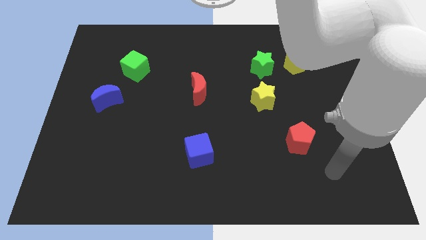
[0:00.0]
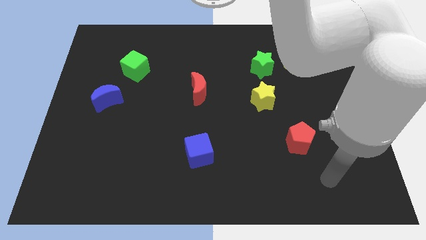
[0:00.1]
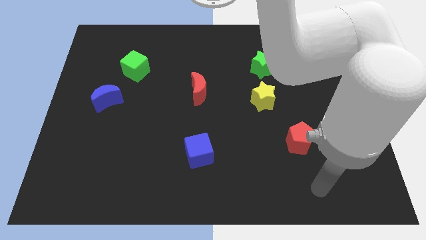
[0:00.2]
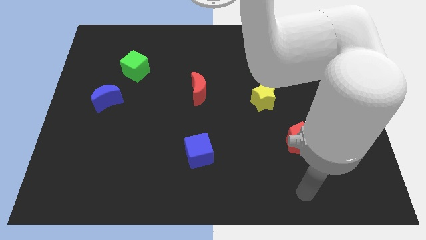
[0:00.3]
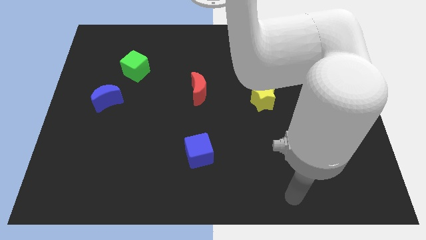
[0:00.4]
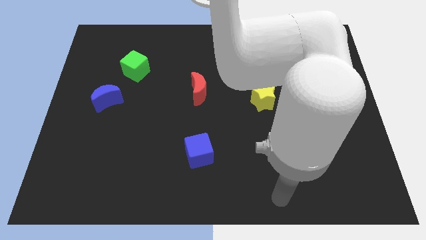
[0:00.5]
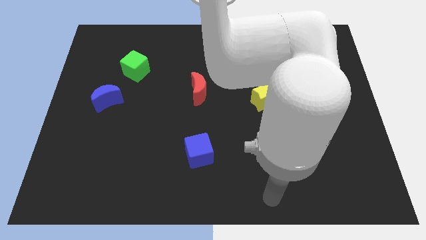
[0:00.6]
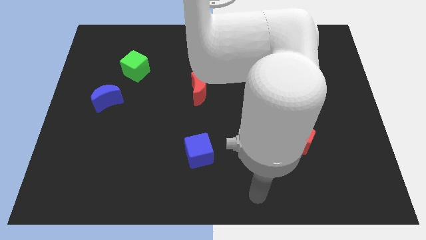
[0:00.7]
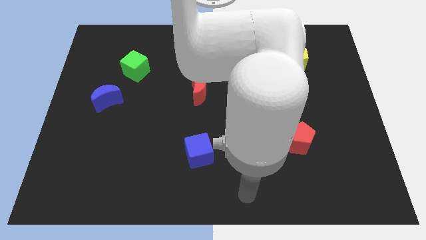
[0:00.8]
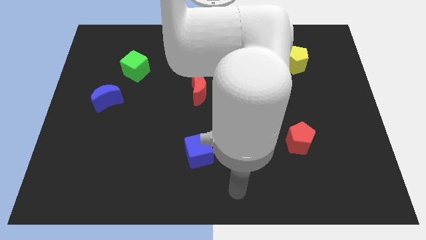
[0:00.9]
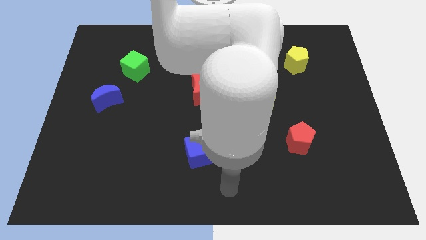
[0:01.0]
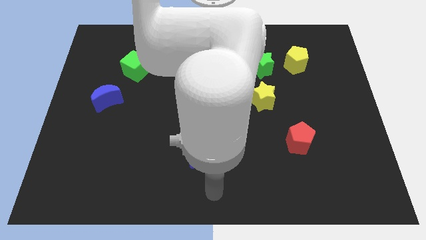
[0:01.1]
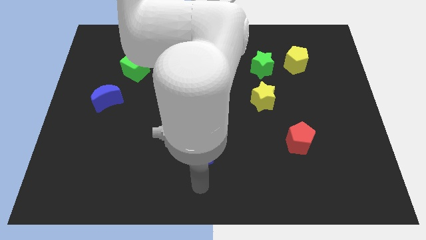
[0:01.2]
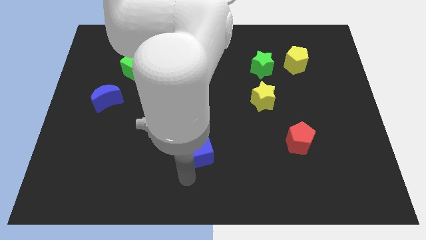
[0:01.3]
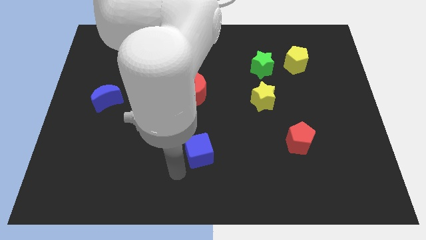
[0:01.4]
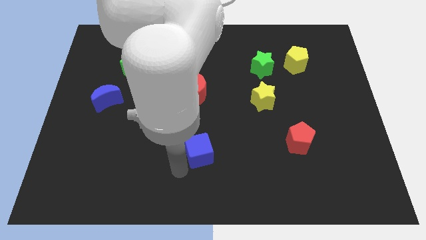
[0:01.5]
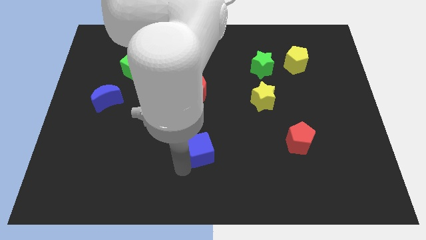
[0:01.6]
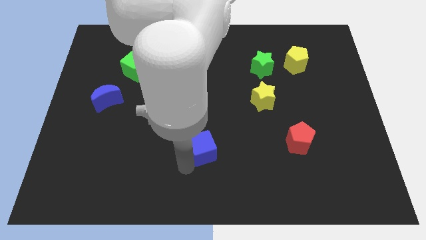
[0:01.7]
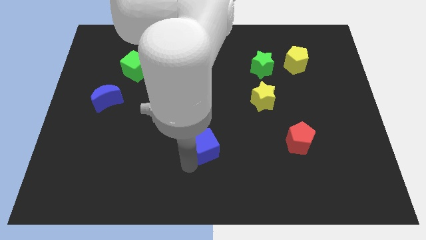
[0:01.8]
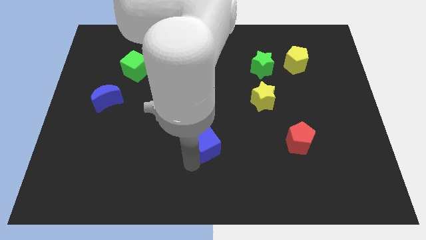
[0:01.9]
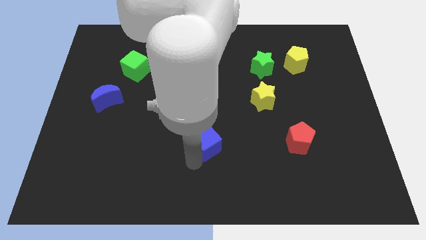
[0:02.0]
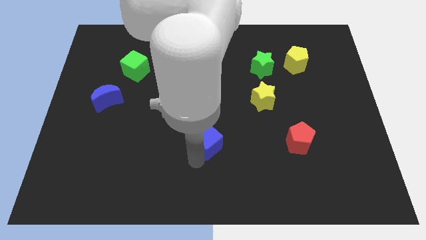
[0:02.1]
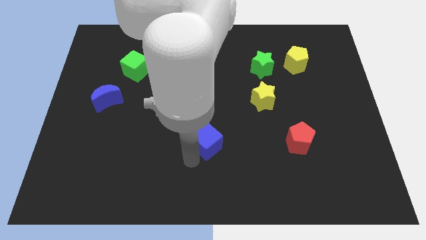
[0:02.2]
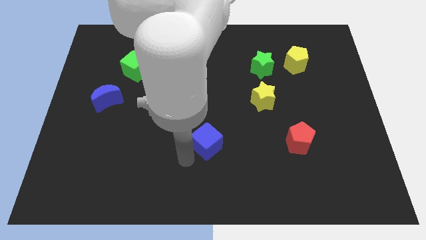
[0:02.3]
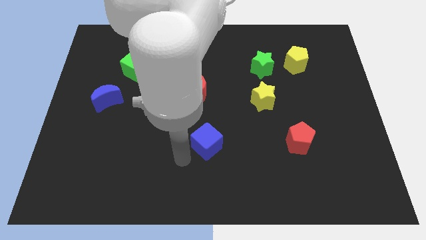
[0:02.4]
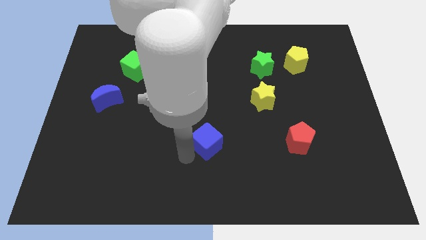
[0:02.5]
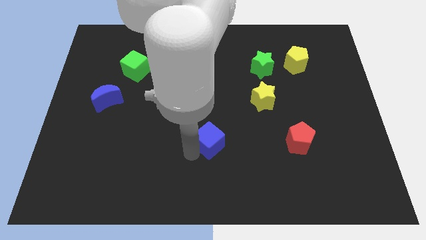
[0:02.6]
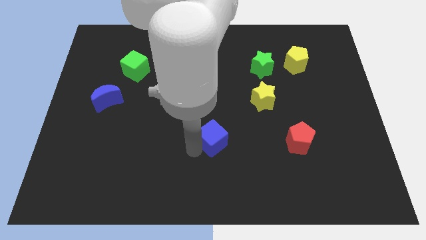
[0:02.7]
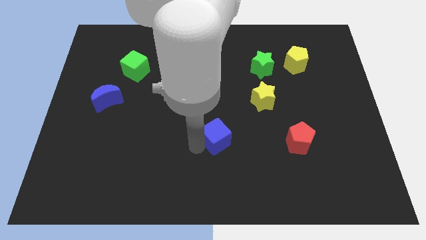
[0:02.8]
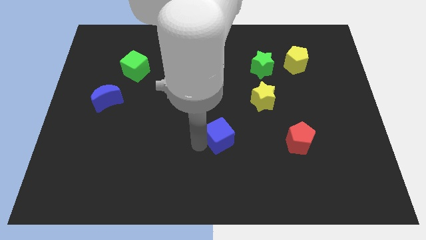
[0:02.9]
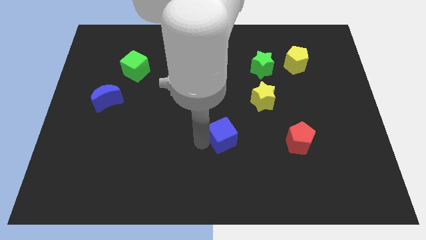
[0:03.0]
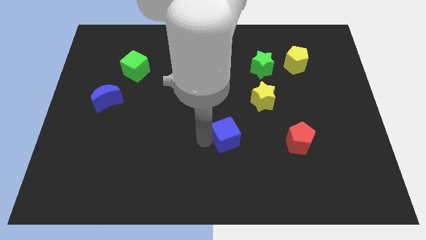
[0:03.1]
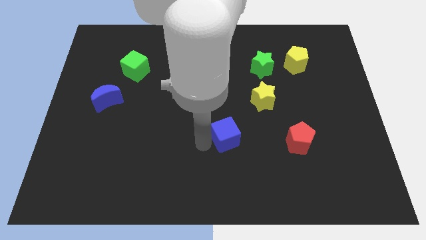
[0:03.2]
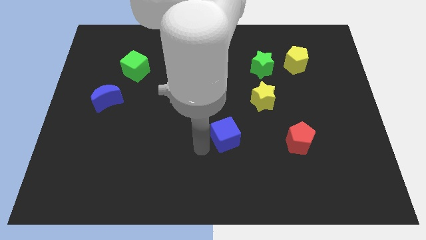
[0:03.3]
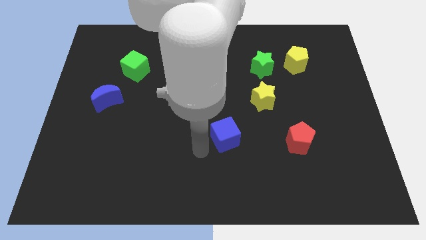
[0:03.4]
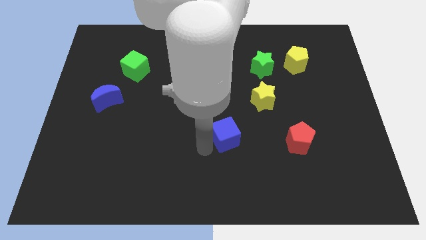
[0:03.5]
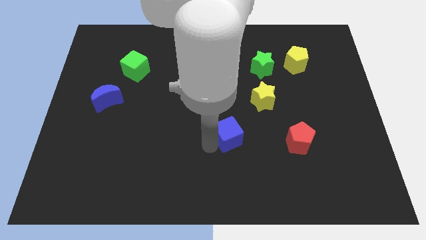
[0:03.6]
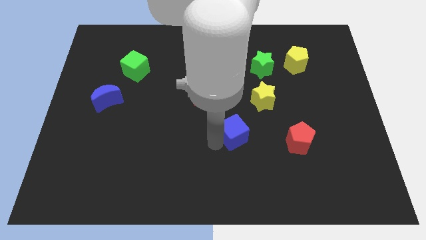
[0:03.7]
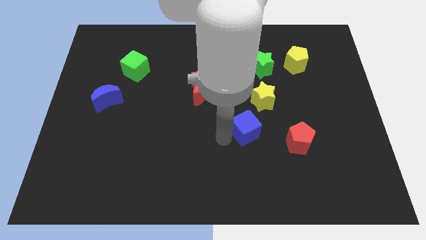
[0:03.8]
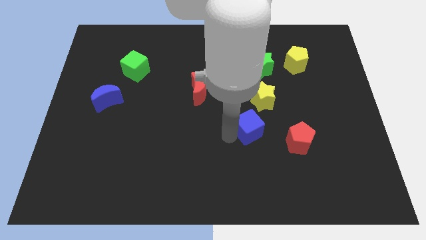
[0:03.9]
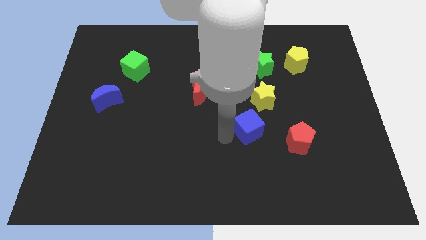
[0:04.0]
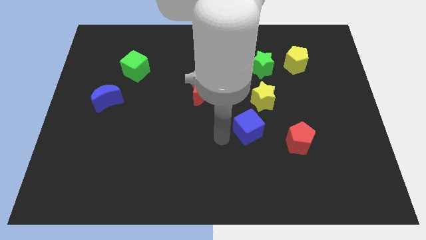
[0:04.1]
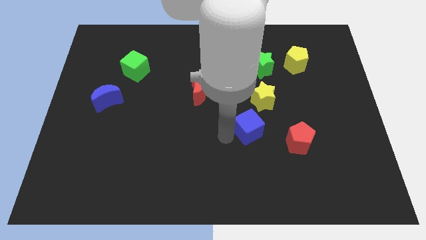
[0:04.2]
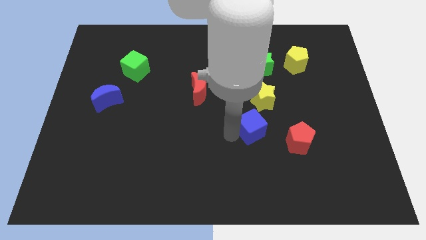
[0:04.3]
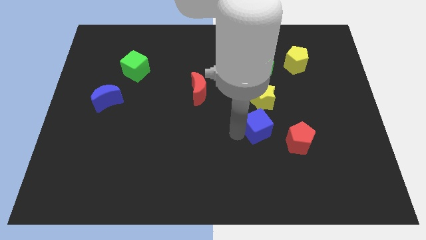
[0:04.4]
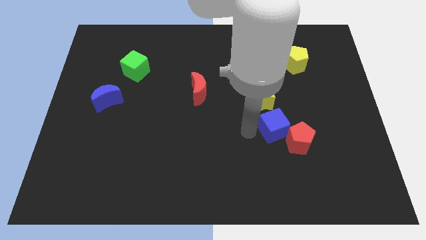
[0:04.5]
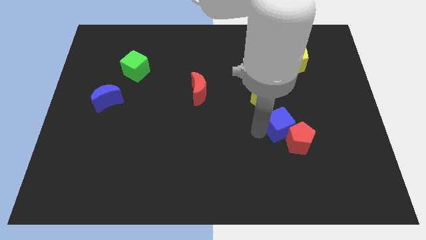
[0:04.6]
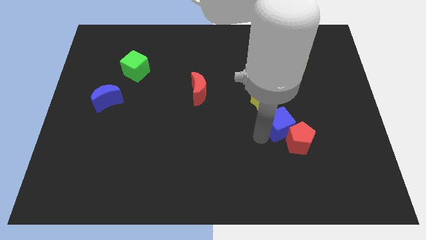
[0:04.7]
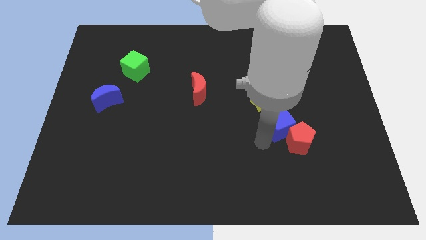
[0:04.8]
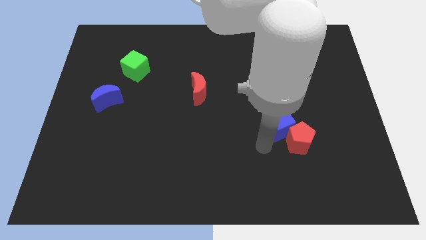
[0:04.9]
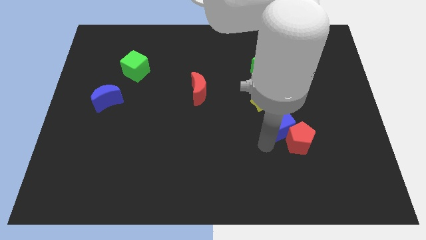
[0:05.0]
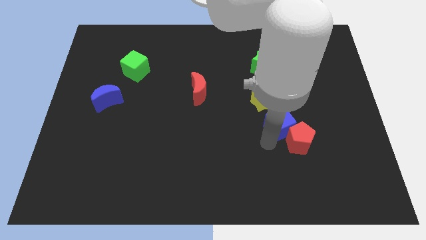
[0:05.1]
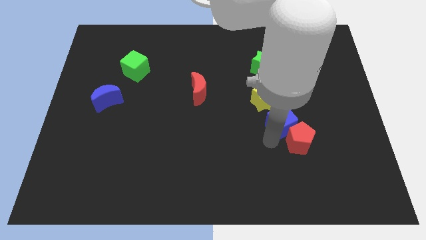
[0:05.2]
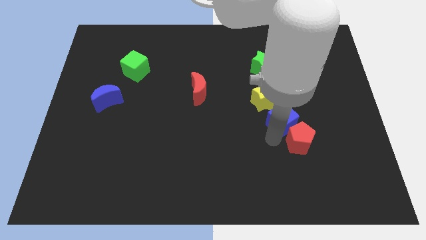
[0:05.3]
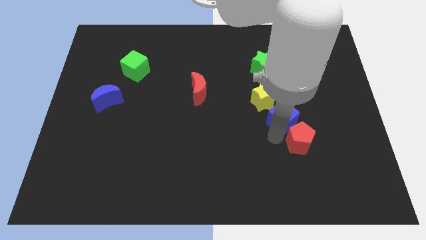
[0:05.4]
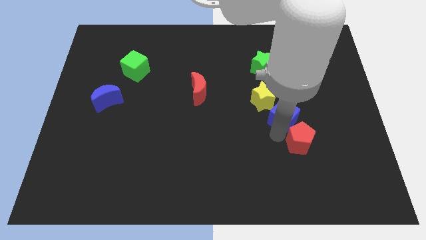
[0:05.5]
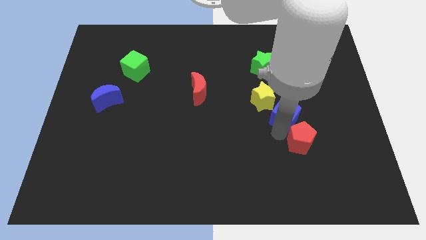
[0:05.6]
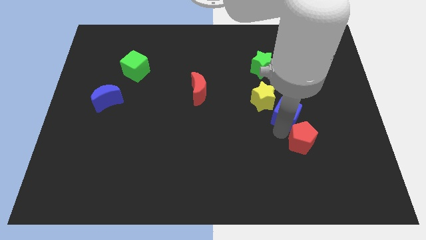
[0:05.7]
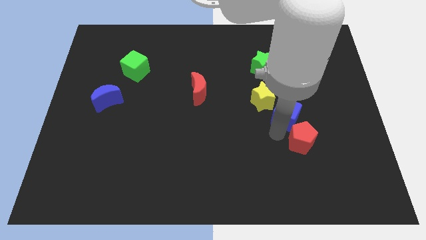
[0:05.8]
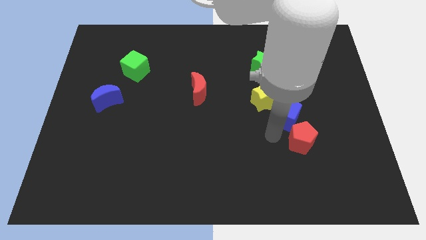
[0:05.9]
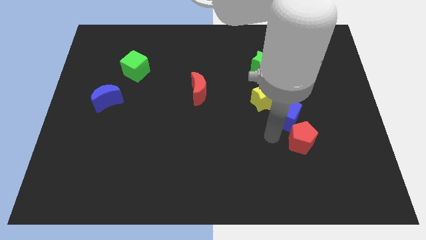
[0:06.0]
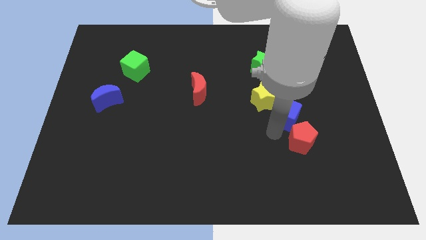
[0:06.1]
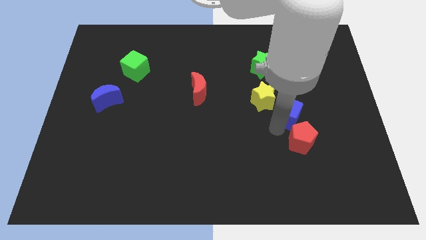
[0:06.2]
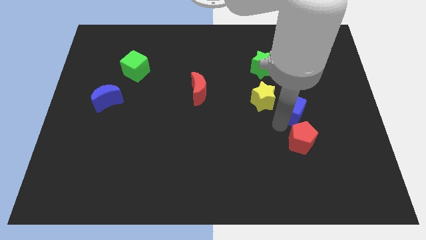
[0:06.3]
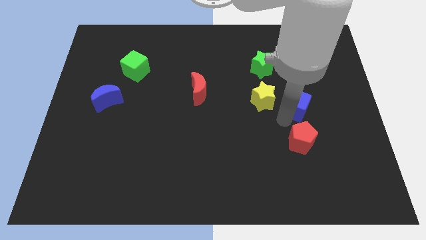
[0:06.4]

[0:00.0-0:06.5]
put the blue cube to the bottom of the yellow pentagon

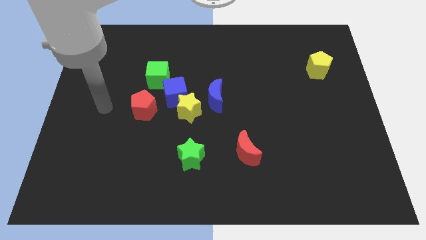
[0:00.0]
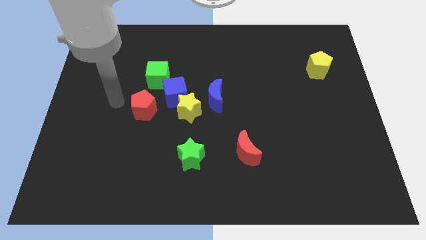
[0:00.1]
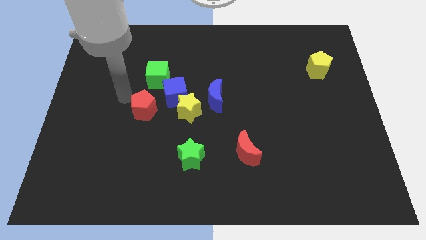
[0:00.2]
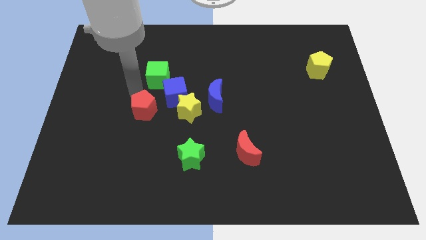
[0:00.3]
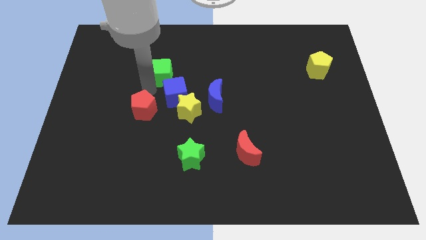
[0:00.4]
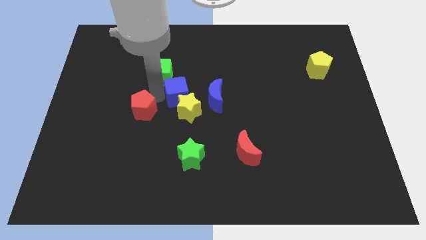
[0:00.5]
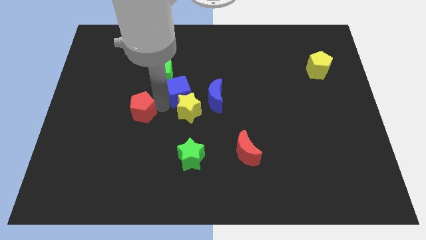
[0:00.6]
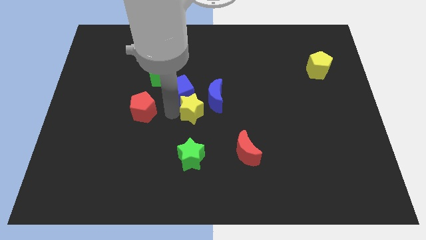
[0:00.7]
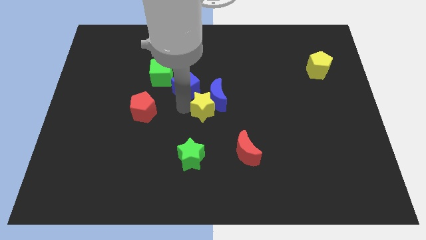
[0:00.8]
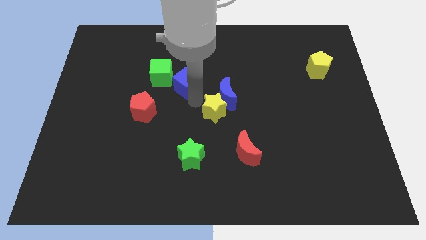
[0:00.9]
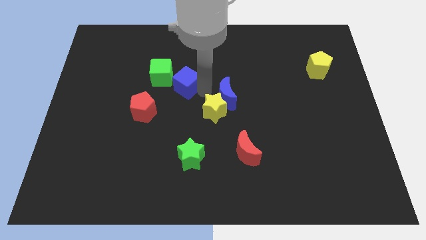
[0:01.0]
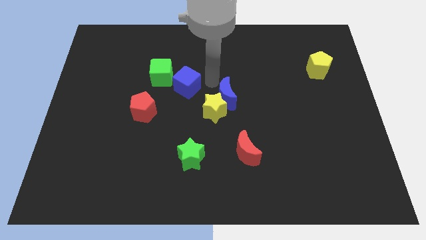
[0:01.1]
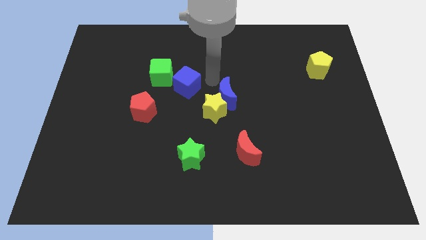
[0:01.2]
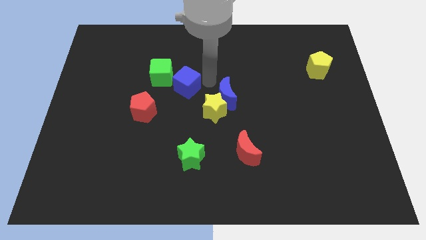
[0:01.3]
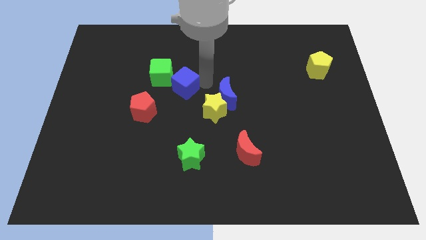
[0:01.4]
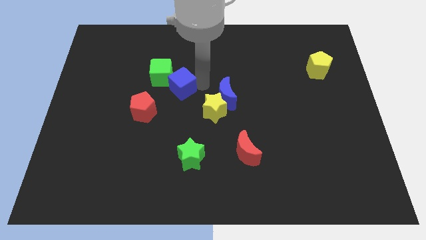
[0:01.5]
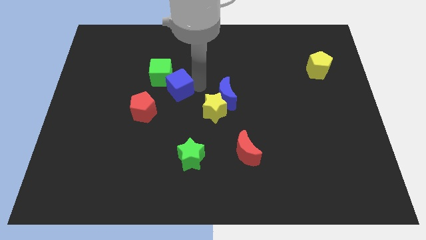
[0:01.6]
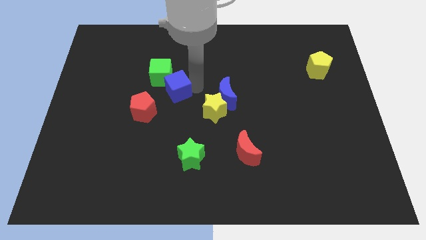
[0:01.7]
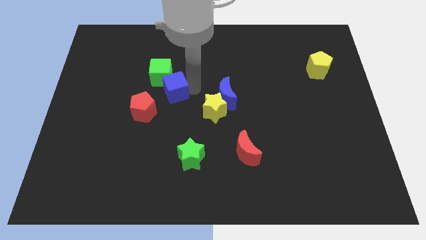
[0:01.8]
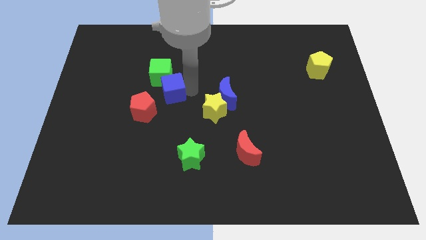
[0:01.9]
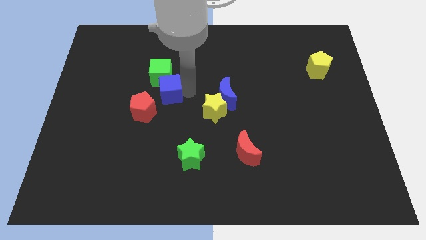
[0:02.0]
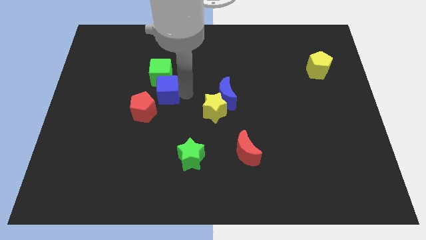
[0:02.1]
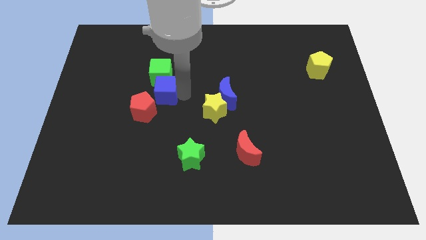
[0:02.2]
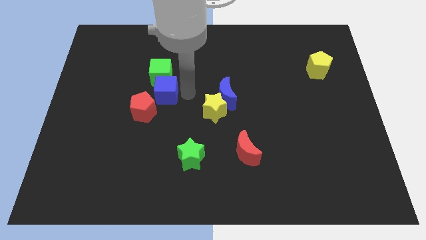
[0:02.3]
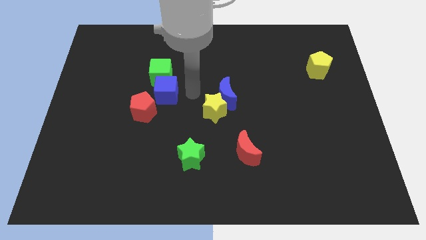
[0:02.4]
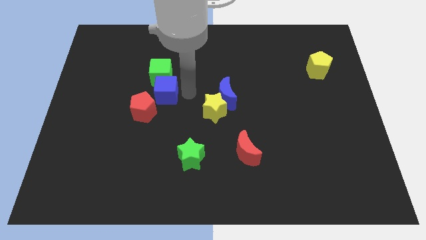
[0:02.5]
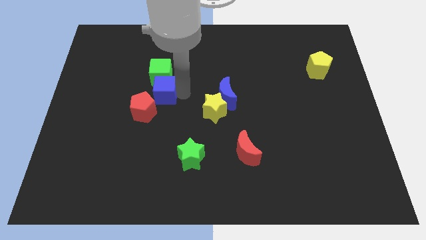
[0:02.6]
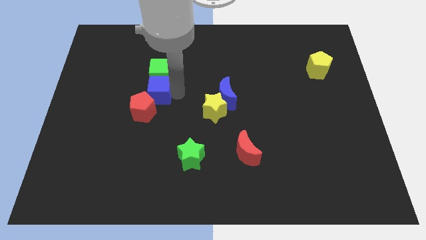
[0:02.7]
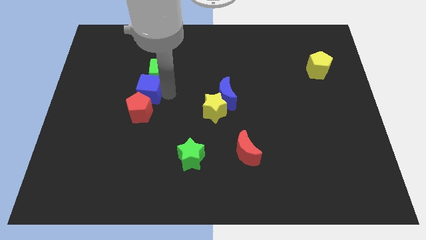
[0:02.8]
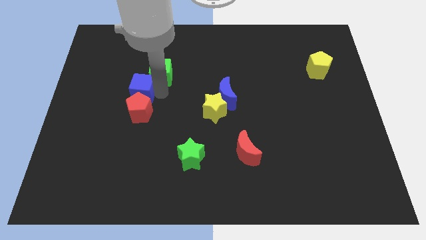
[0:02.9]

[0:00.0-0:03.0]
slide the blue cube to the top left of the red pentagon
